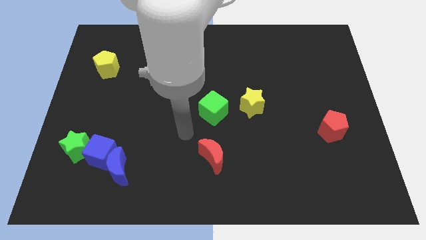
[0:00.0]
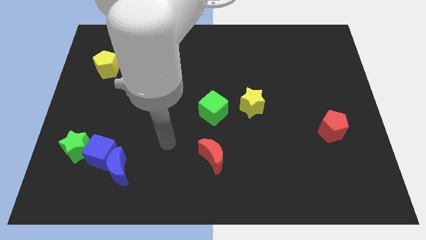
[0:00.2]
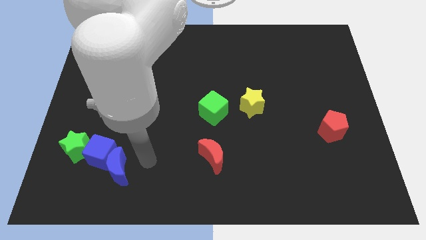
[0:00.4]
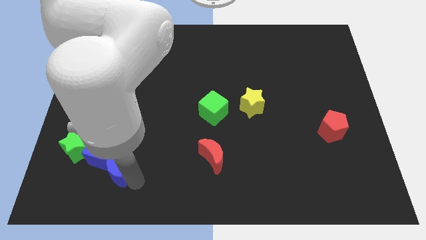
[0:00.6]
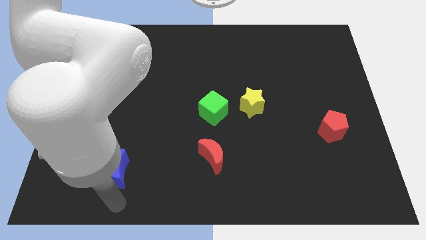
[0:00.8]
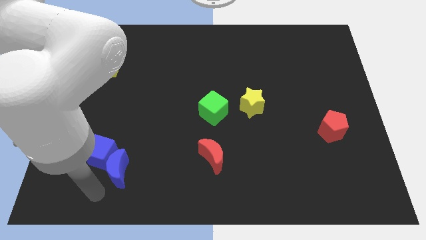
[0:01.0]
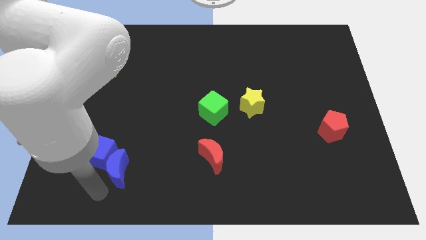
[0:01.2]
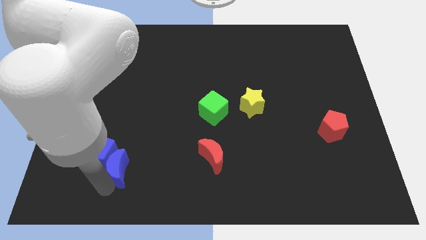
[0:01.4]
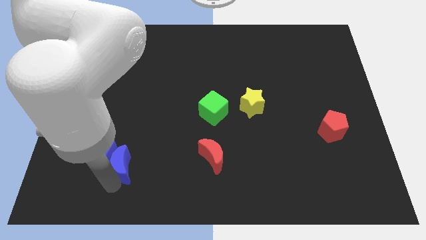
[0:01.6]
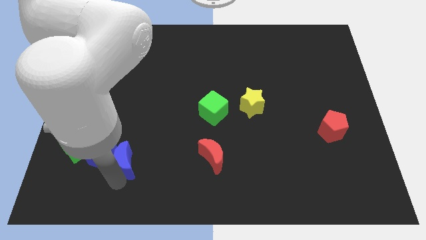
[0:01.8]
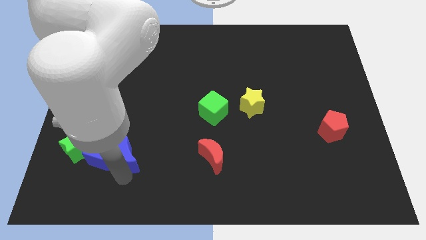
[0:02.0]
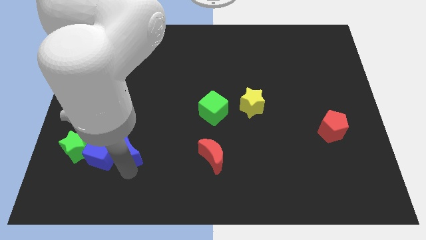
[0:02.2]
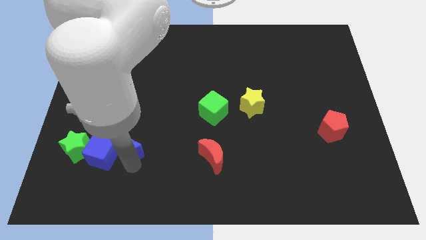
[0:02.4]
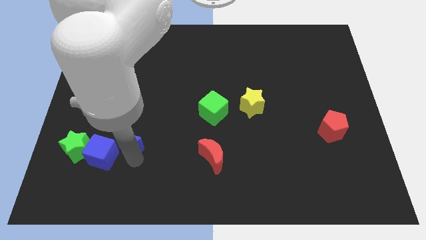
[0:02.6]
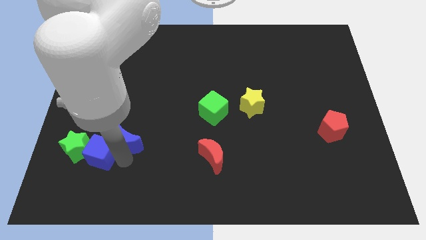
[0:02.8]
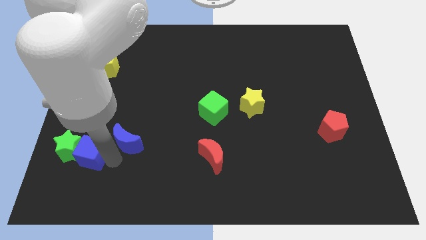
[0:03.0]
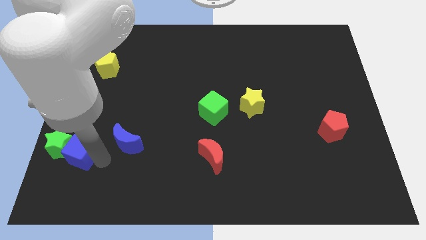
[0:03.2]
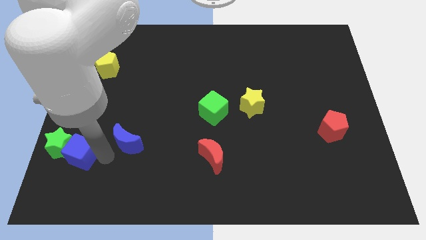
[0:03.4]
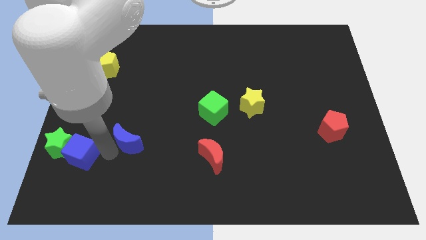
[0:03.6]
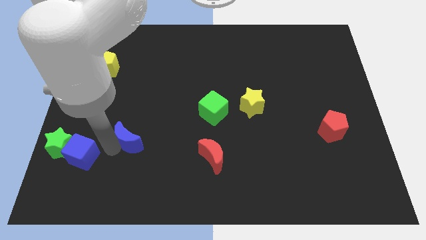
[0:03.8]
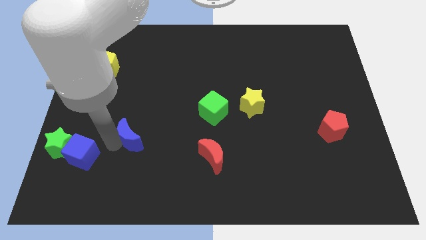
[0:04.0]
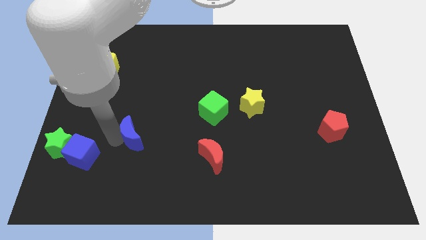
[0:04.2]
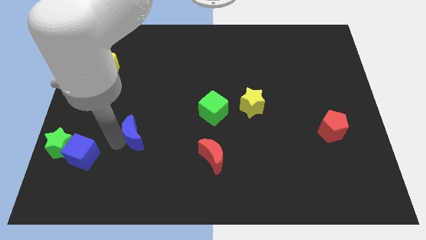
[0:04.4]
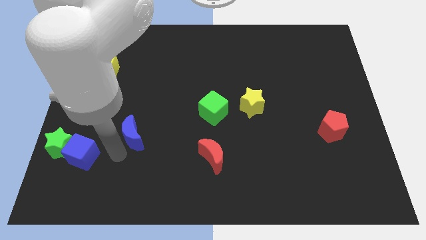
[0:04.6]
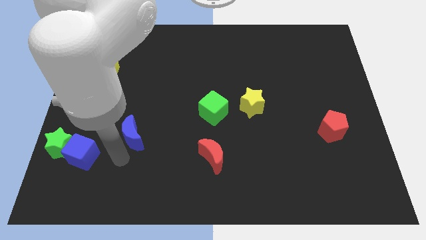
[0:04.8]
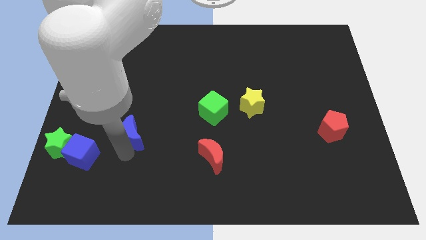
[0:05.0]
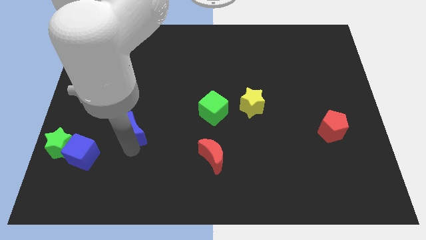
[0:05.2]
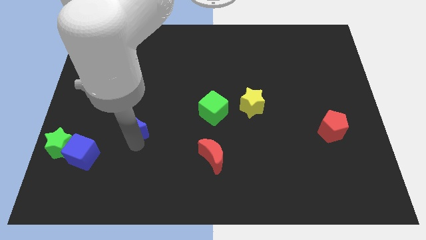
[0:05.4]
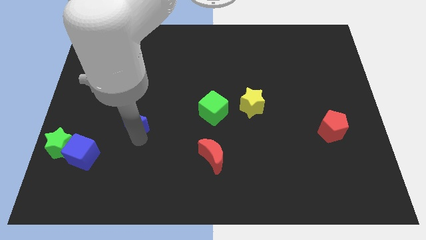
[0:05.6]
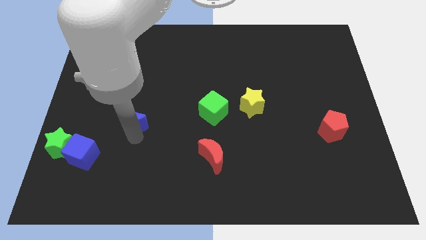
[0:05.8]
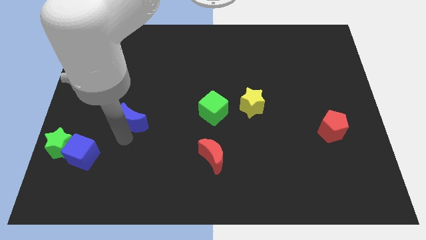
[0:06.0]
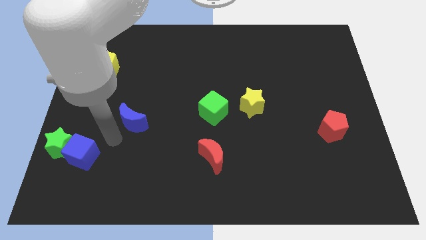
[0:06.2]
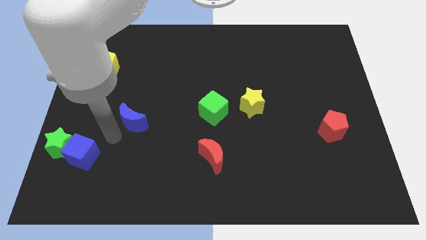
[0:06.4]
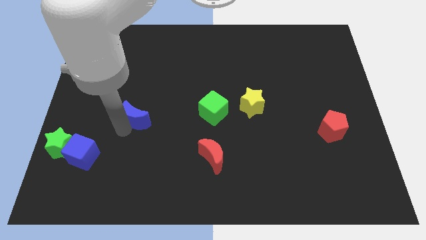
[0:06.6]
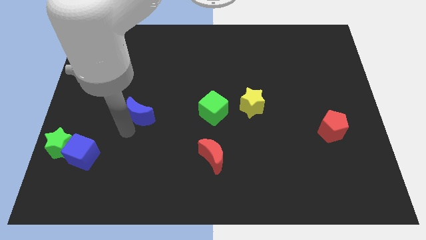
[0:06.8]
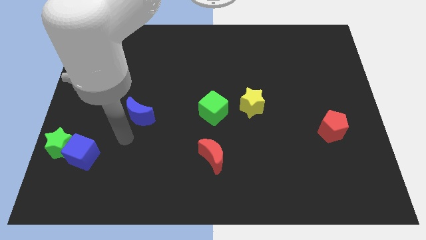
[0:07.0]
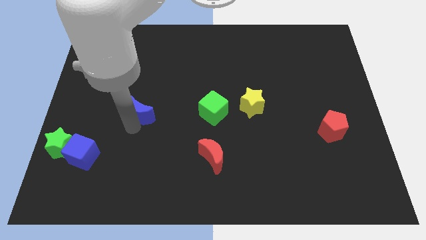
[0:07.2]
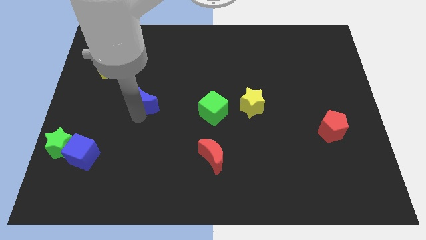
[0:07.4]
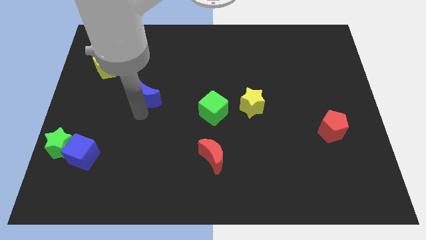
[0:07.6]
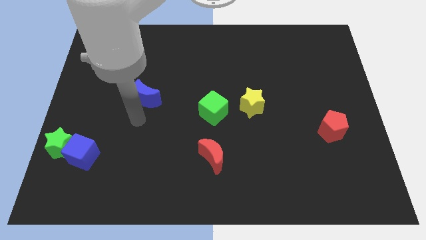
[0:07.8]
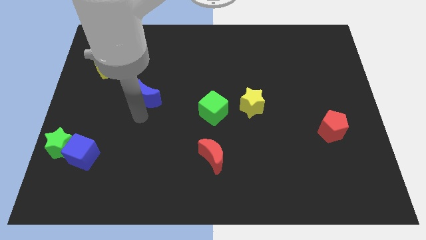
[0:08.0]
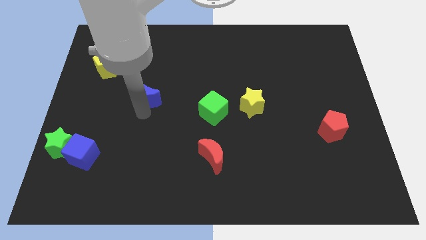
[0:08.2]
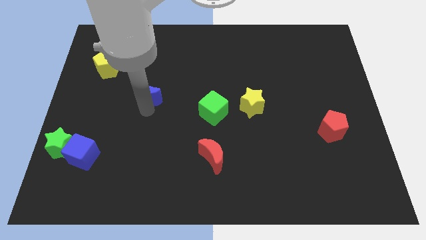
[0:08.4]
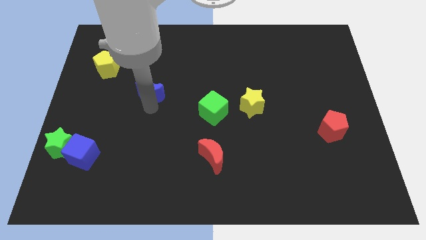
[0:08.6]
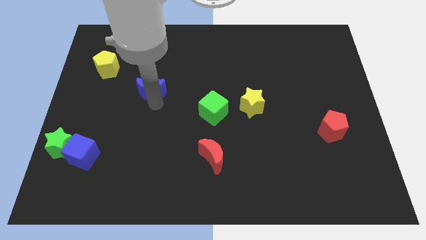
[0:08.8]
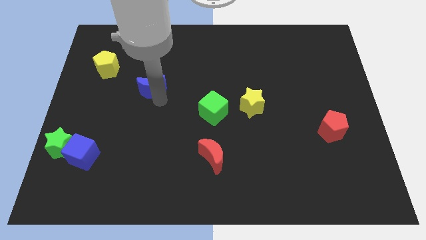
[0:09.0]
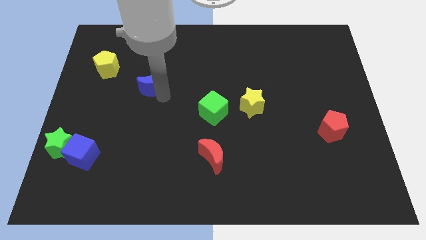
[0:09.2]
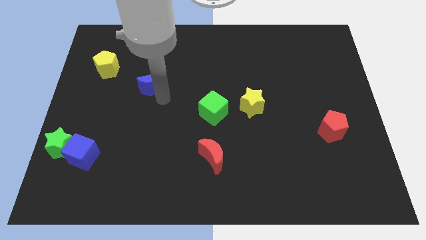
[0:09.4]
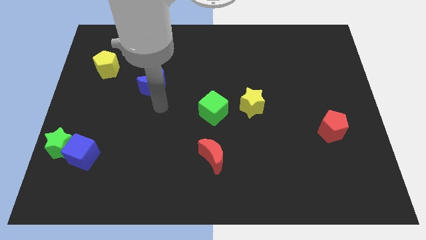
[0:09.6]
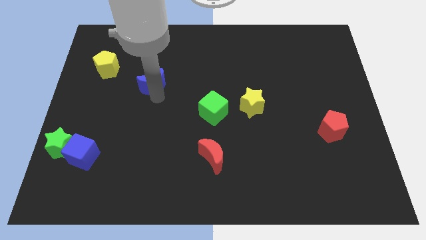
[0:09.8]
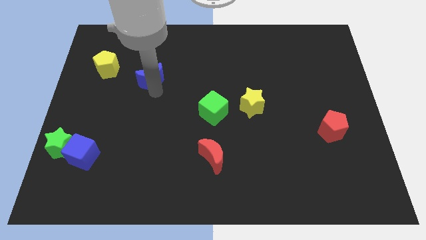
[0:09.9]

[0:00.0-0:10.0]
move the blue moon to the right side of the yellow pentagon

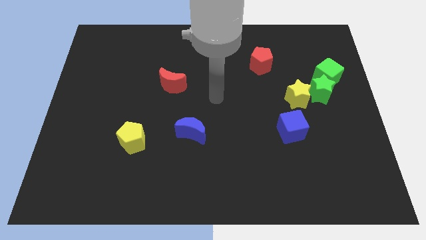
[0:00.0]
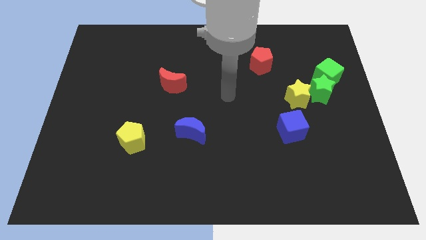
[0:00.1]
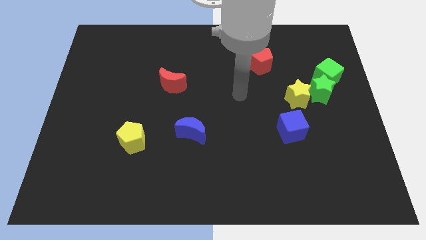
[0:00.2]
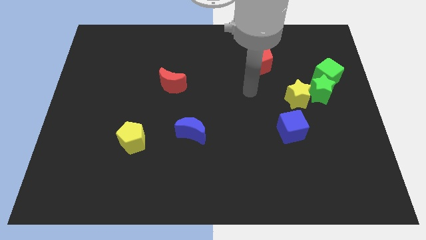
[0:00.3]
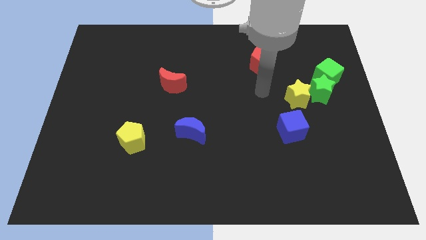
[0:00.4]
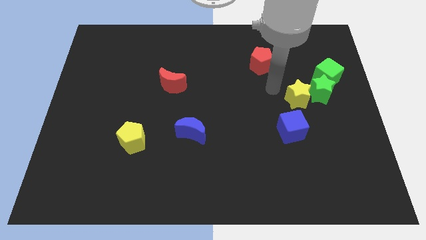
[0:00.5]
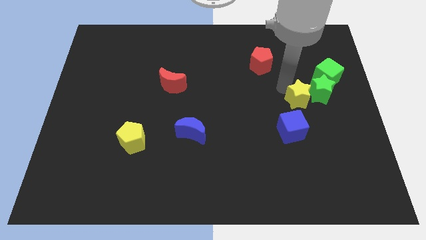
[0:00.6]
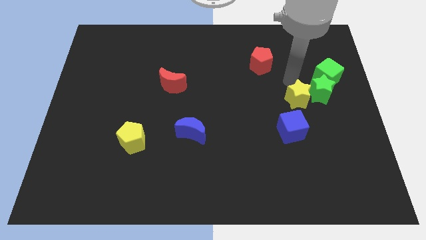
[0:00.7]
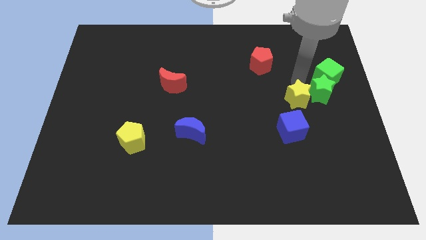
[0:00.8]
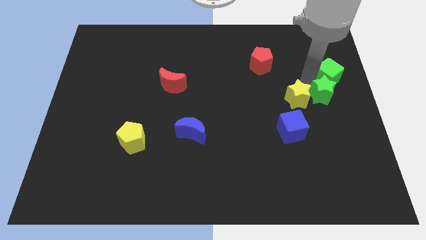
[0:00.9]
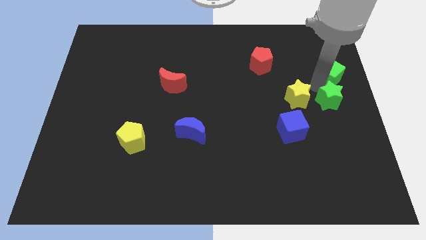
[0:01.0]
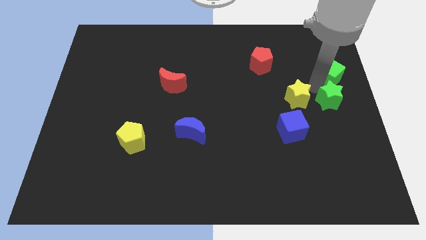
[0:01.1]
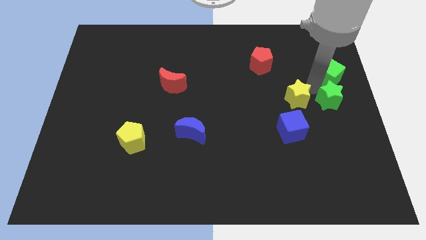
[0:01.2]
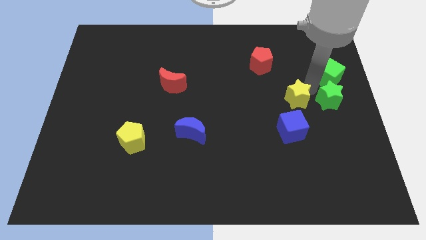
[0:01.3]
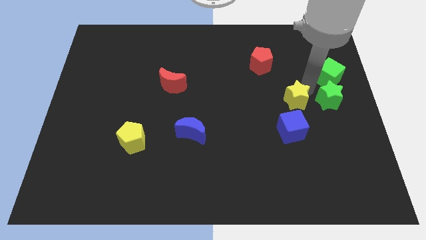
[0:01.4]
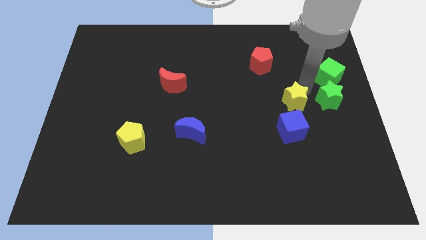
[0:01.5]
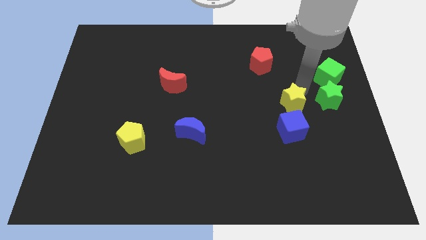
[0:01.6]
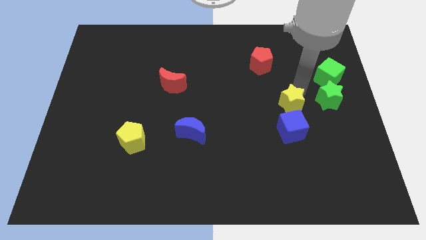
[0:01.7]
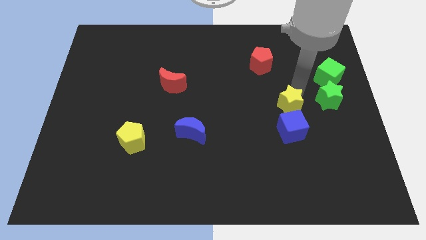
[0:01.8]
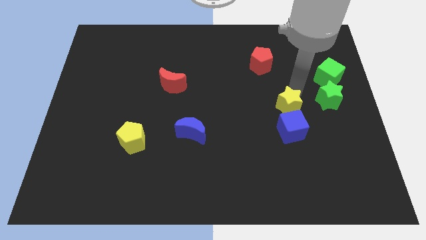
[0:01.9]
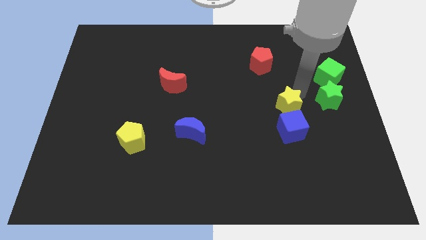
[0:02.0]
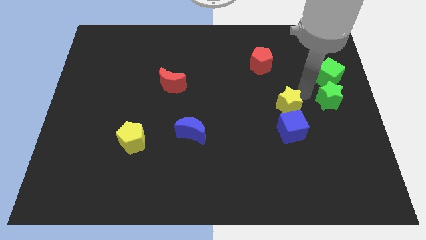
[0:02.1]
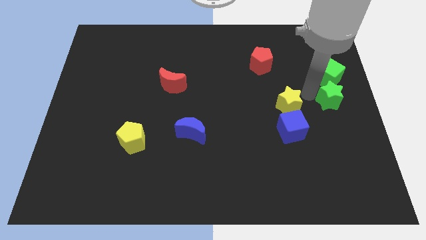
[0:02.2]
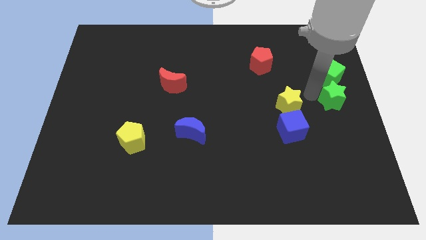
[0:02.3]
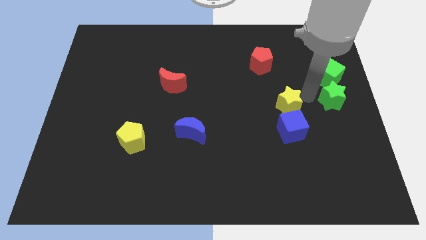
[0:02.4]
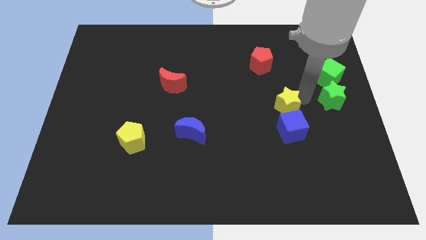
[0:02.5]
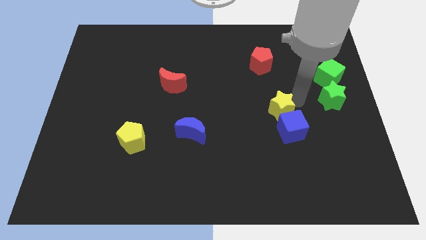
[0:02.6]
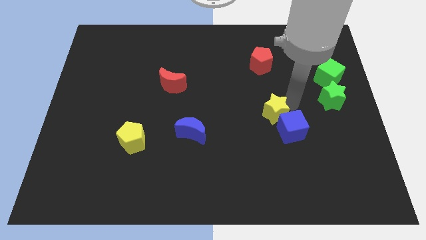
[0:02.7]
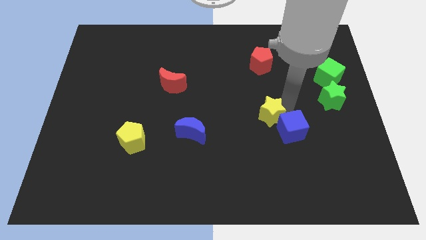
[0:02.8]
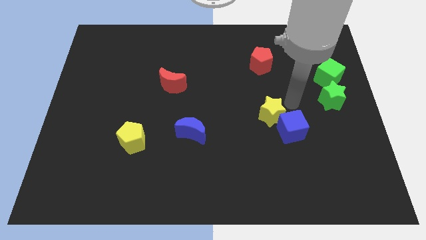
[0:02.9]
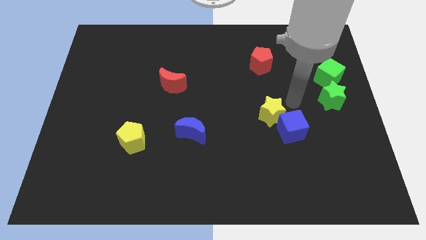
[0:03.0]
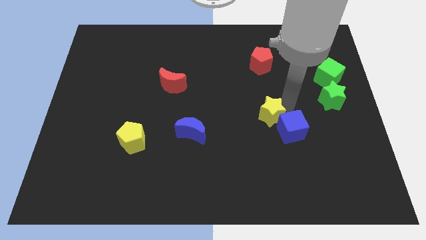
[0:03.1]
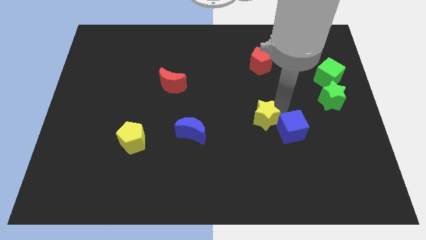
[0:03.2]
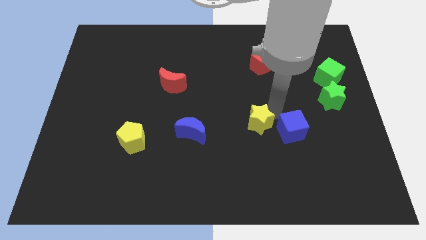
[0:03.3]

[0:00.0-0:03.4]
move the yellow star right of the blue moon

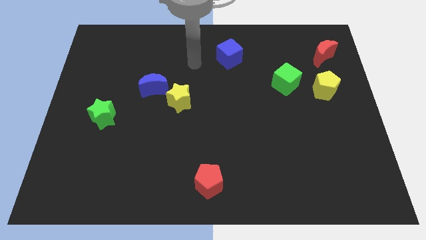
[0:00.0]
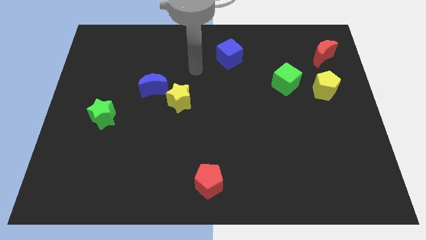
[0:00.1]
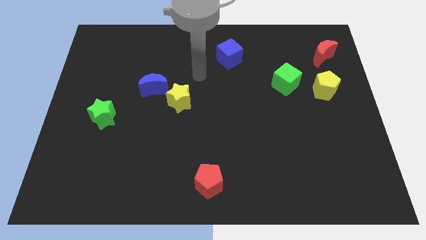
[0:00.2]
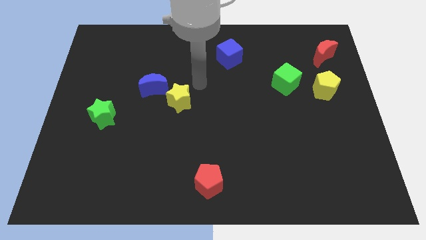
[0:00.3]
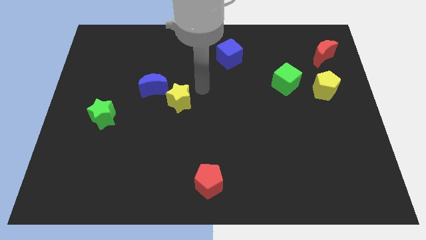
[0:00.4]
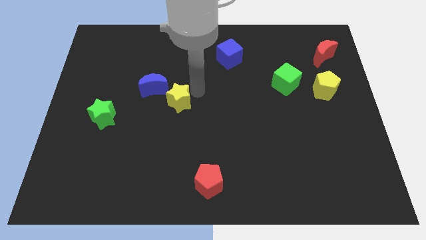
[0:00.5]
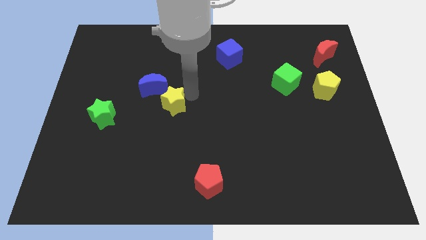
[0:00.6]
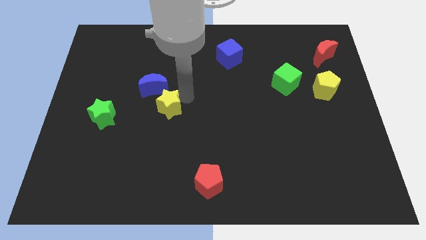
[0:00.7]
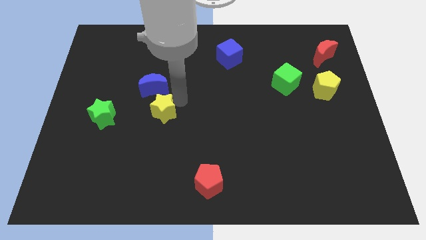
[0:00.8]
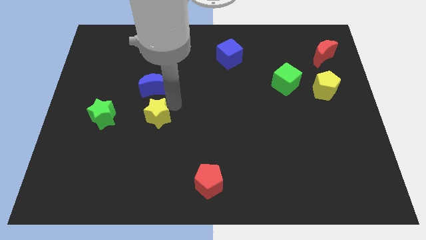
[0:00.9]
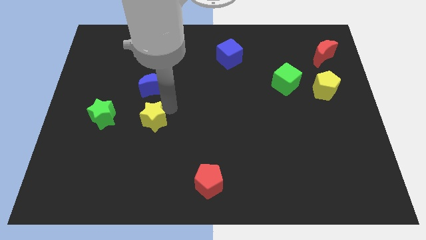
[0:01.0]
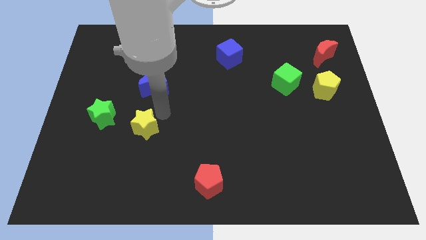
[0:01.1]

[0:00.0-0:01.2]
slide the yellow star to the bottom right side of the green star
